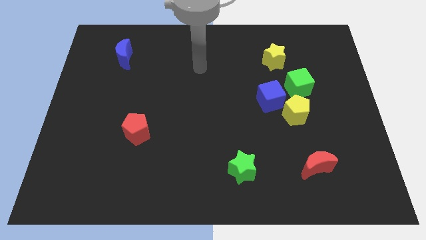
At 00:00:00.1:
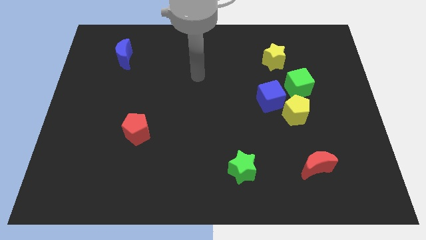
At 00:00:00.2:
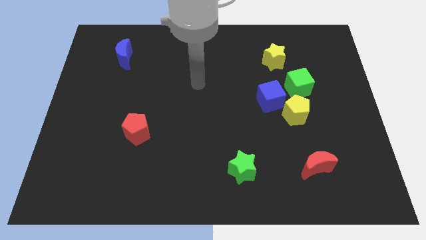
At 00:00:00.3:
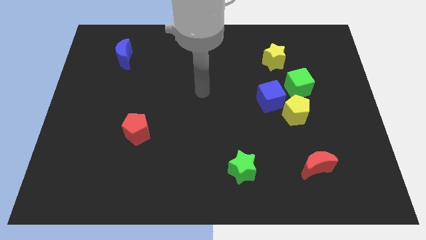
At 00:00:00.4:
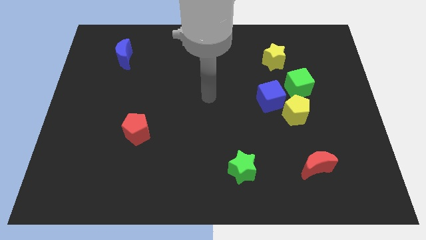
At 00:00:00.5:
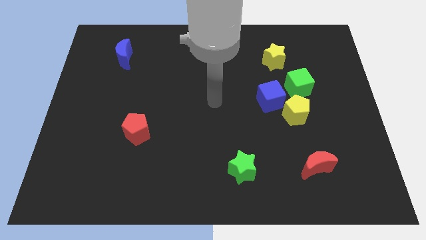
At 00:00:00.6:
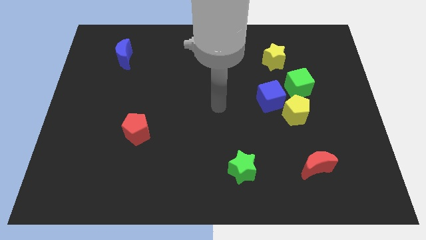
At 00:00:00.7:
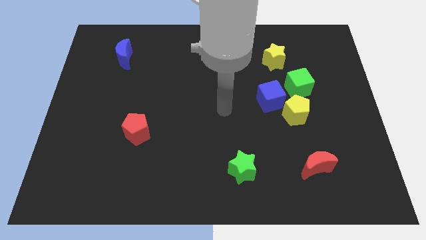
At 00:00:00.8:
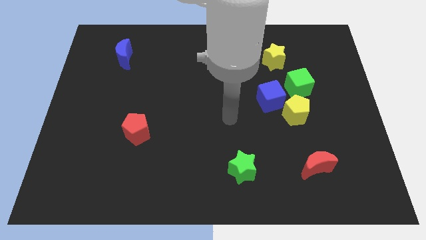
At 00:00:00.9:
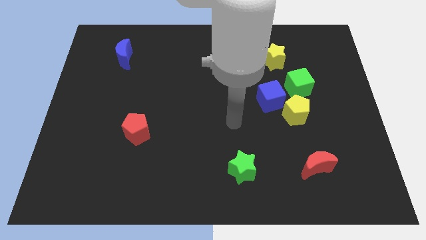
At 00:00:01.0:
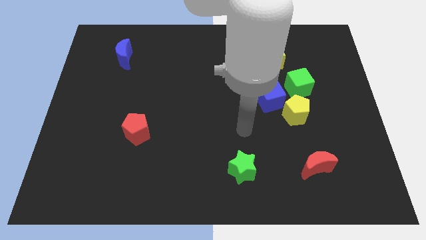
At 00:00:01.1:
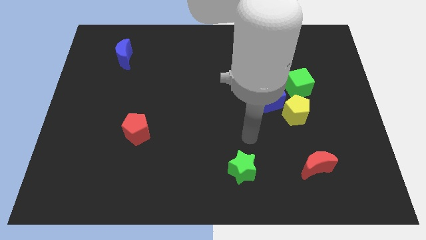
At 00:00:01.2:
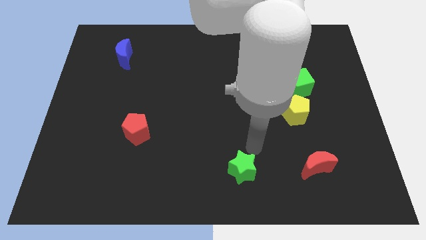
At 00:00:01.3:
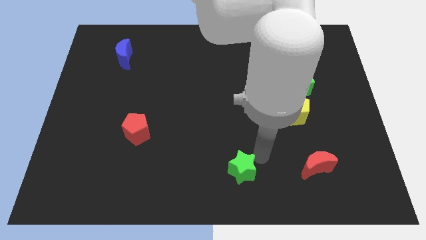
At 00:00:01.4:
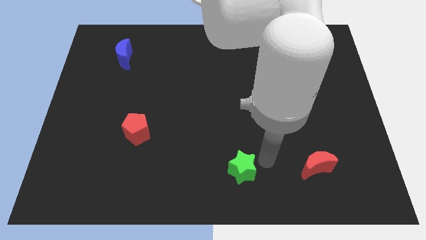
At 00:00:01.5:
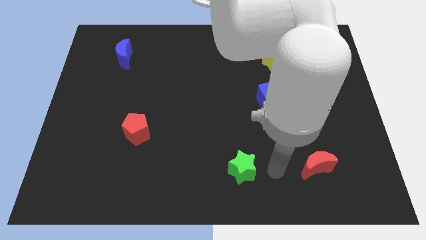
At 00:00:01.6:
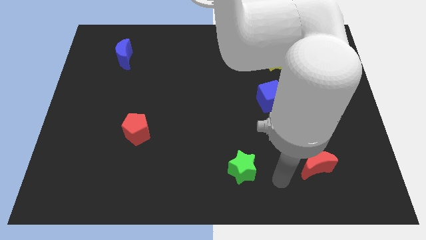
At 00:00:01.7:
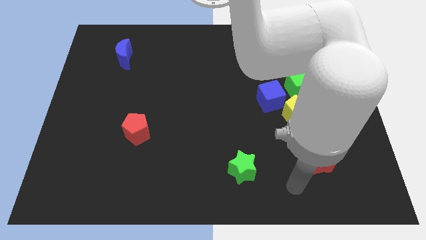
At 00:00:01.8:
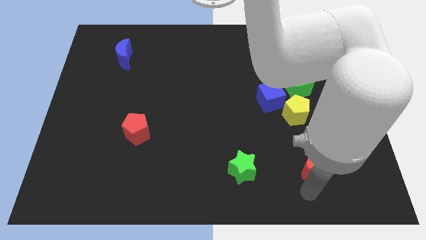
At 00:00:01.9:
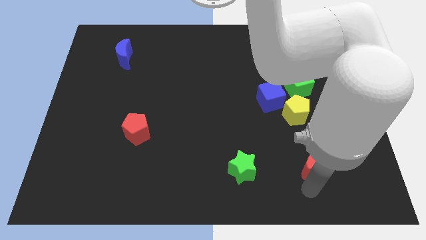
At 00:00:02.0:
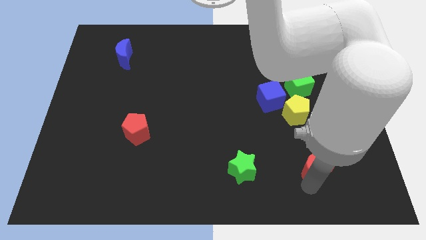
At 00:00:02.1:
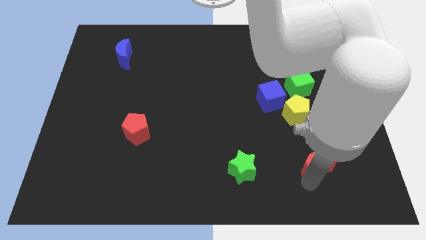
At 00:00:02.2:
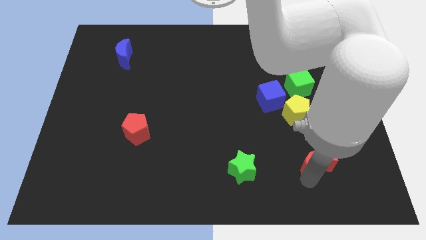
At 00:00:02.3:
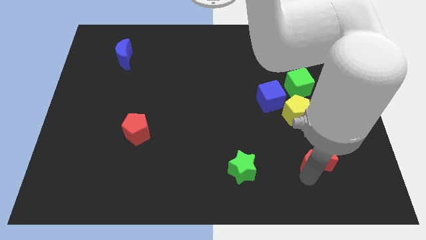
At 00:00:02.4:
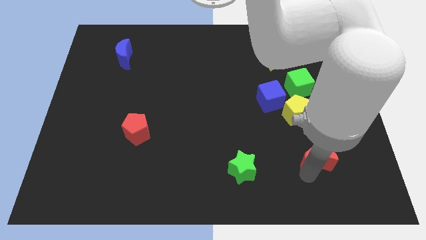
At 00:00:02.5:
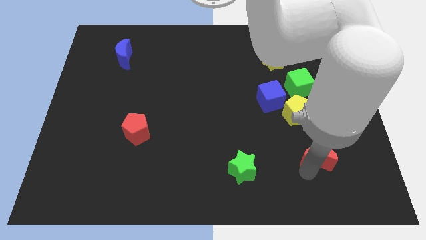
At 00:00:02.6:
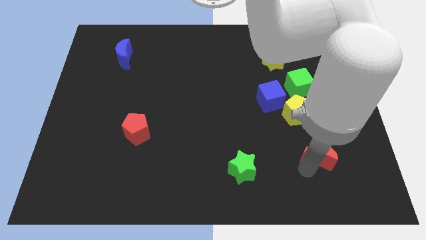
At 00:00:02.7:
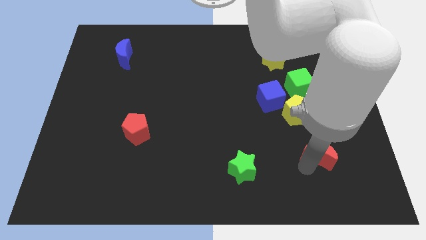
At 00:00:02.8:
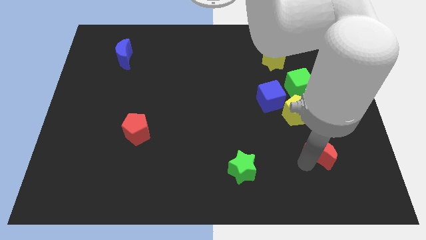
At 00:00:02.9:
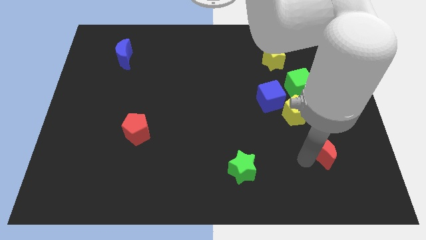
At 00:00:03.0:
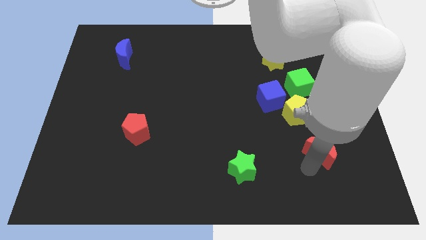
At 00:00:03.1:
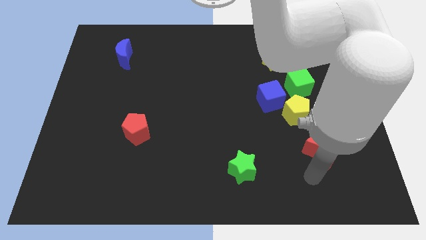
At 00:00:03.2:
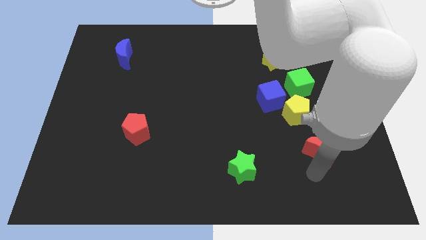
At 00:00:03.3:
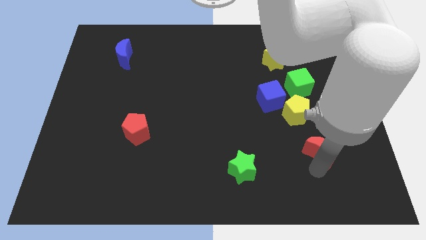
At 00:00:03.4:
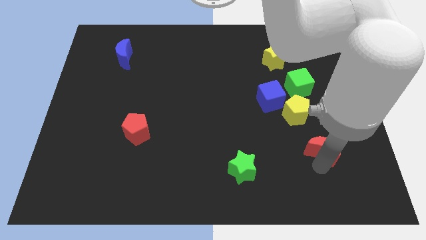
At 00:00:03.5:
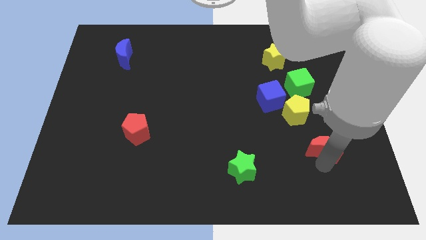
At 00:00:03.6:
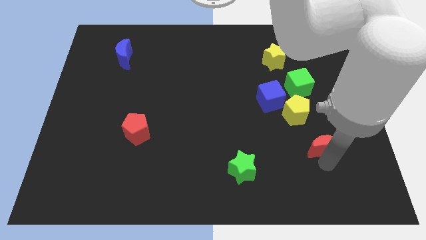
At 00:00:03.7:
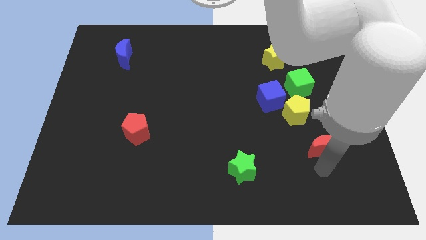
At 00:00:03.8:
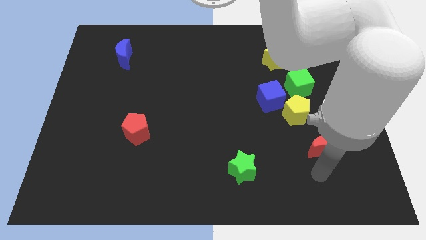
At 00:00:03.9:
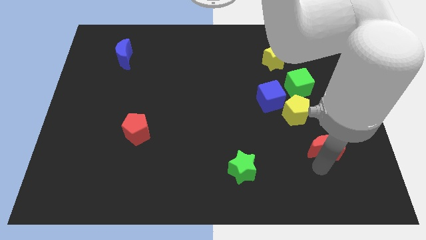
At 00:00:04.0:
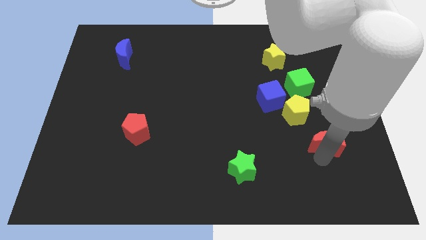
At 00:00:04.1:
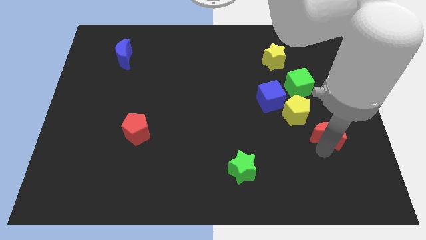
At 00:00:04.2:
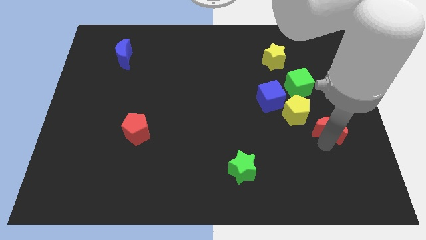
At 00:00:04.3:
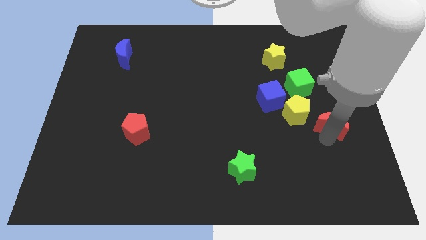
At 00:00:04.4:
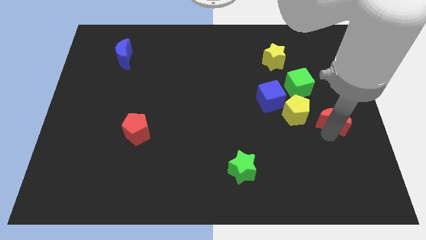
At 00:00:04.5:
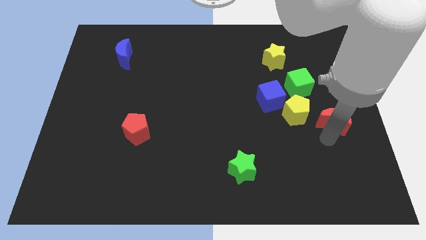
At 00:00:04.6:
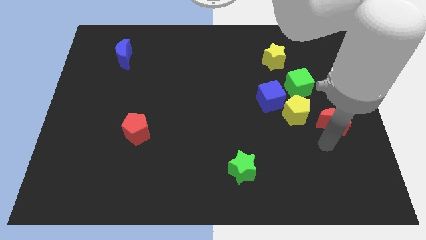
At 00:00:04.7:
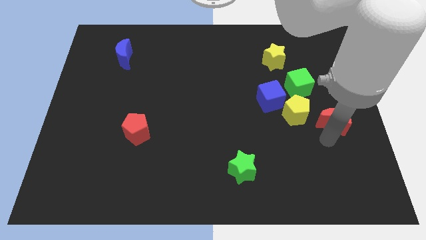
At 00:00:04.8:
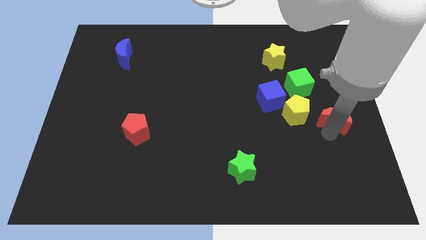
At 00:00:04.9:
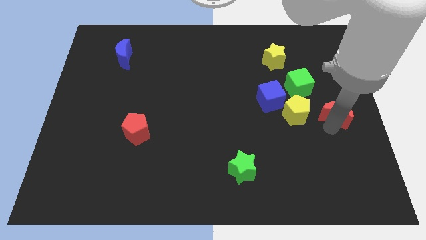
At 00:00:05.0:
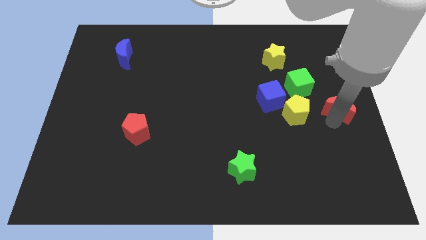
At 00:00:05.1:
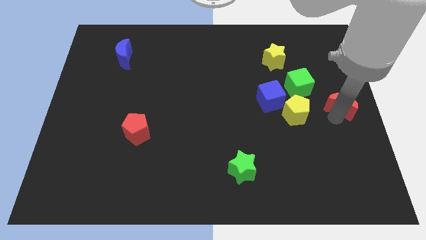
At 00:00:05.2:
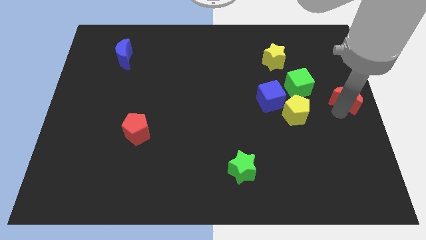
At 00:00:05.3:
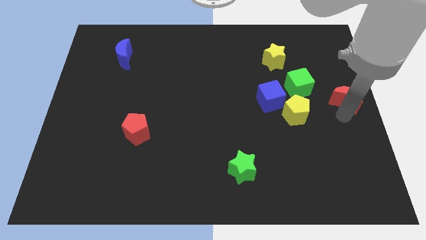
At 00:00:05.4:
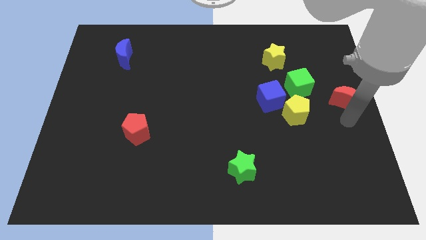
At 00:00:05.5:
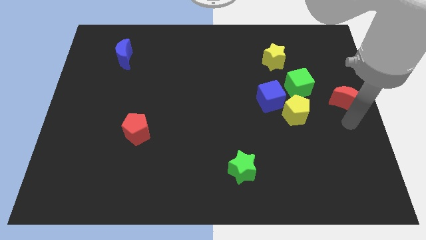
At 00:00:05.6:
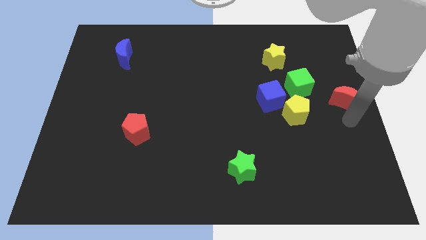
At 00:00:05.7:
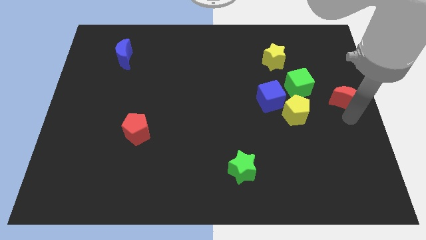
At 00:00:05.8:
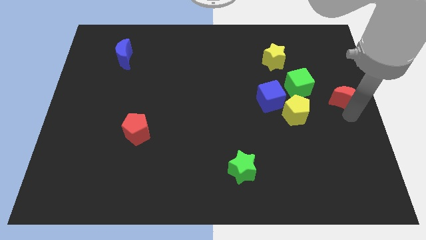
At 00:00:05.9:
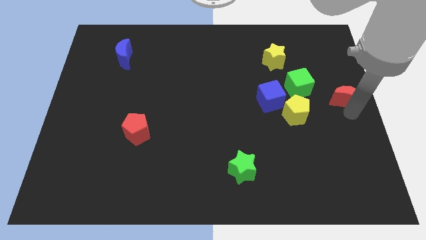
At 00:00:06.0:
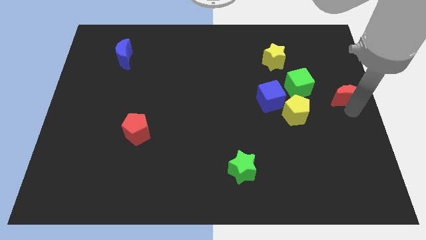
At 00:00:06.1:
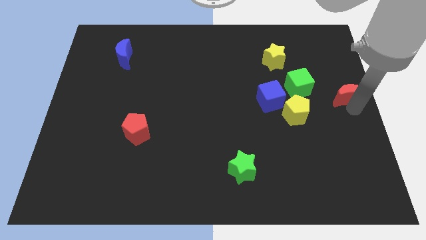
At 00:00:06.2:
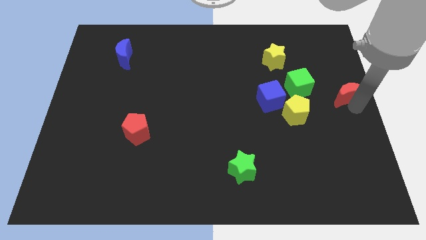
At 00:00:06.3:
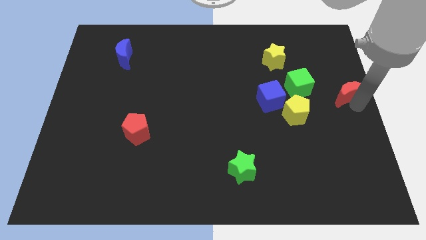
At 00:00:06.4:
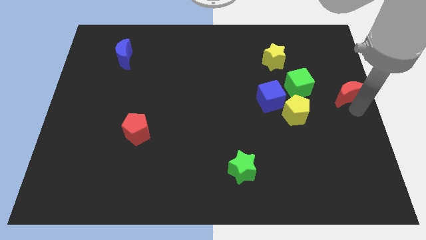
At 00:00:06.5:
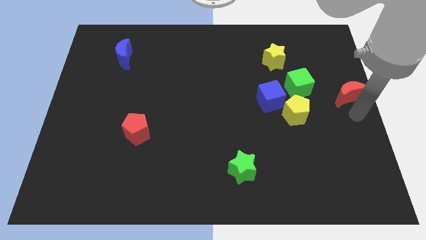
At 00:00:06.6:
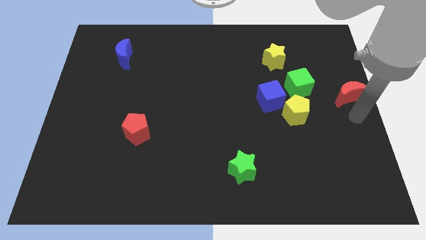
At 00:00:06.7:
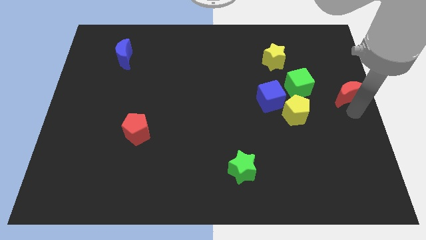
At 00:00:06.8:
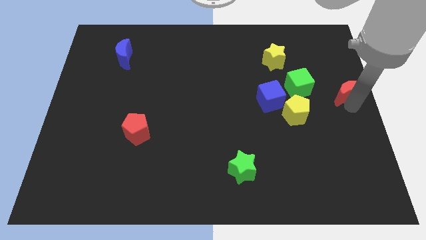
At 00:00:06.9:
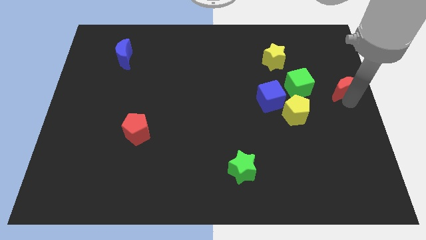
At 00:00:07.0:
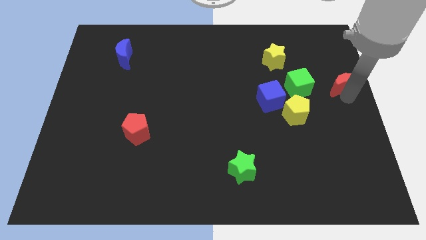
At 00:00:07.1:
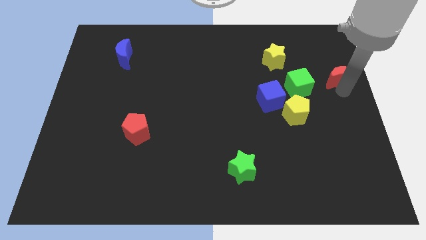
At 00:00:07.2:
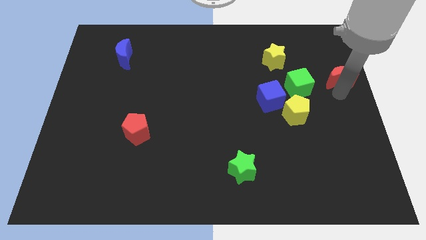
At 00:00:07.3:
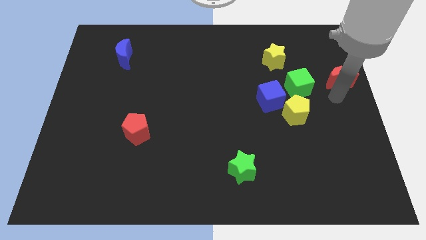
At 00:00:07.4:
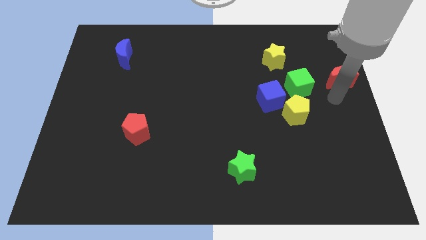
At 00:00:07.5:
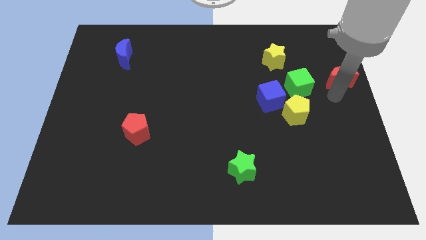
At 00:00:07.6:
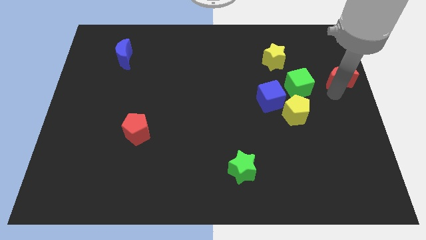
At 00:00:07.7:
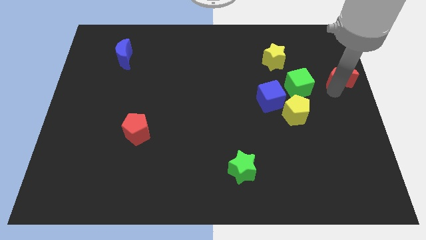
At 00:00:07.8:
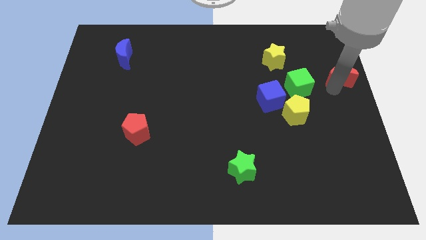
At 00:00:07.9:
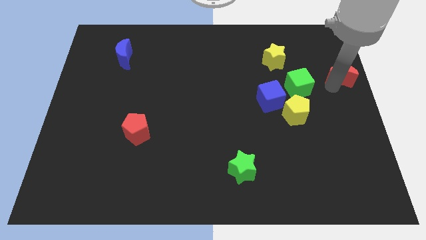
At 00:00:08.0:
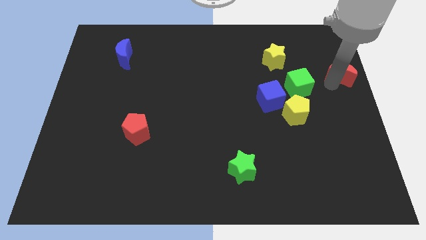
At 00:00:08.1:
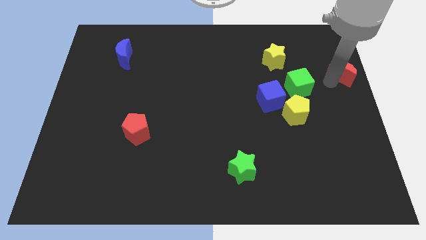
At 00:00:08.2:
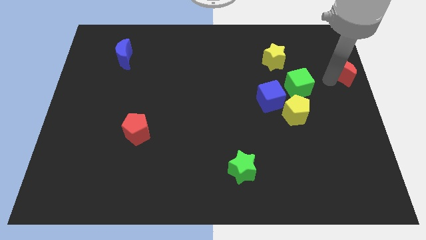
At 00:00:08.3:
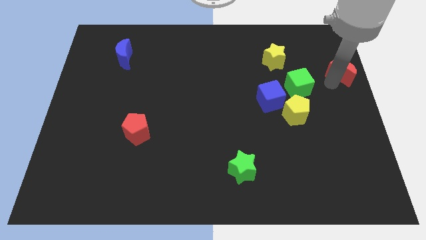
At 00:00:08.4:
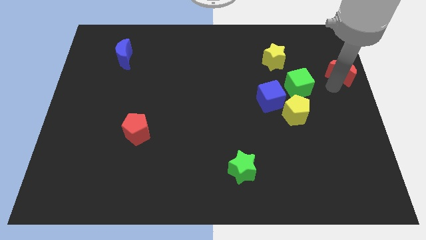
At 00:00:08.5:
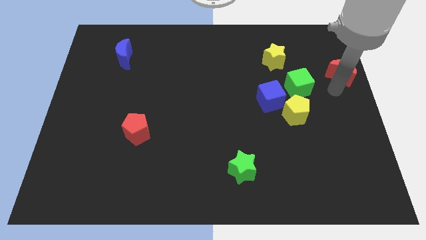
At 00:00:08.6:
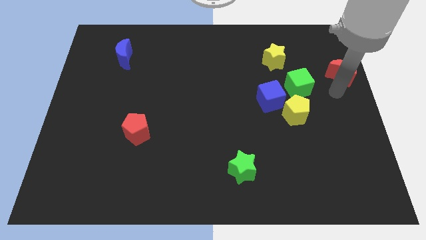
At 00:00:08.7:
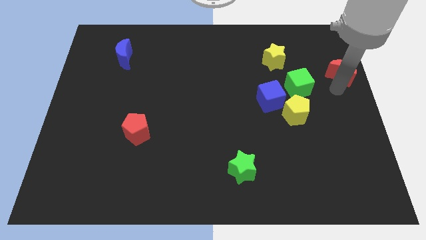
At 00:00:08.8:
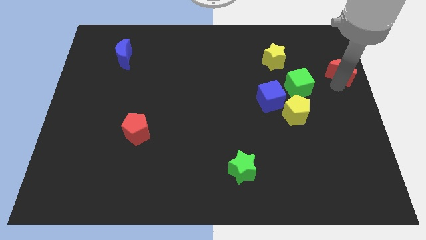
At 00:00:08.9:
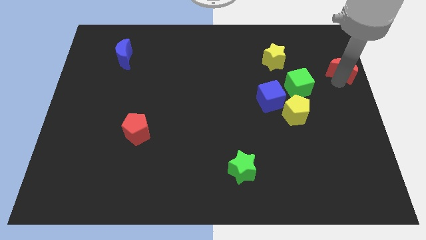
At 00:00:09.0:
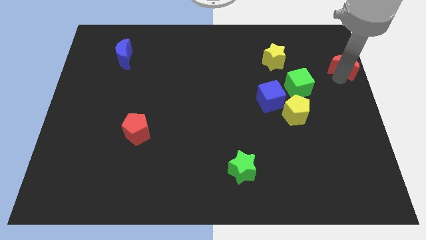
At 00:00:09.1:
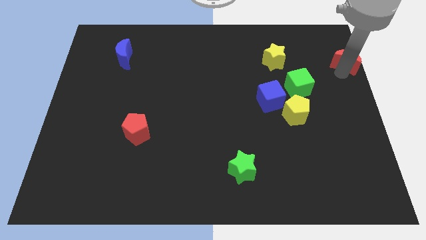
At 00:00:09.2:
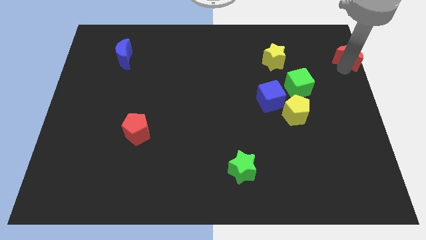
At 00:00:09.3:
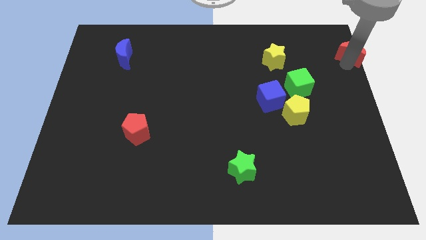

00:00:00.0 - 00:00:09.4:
push the red moon to the top right of the board
